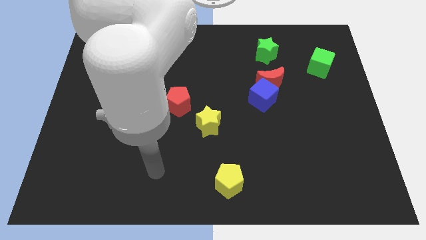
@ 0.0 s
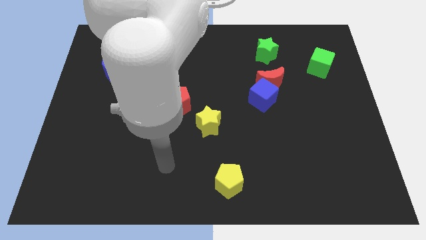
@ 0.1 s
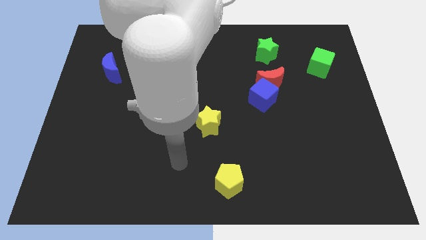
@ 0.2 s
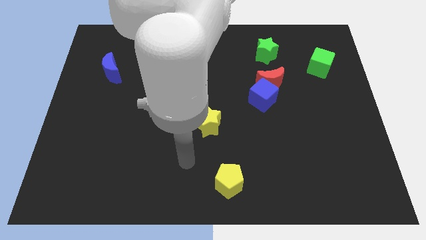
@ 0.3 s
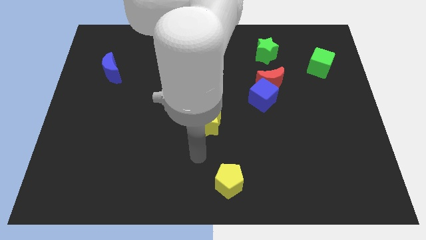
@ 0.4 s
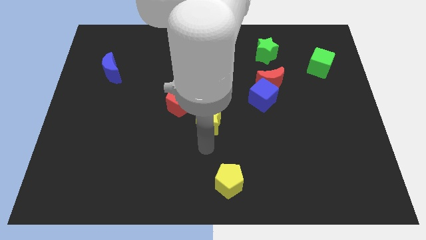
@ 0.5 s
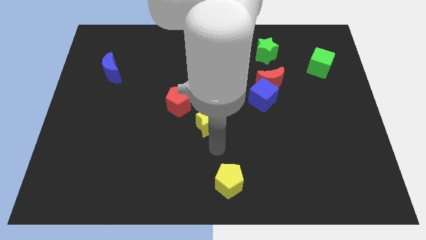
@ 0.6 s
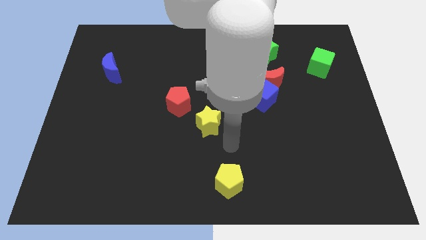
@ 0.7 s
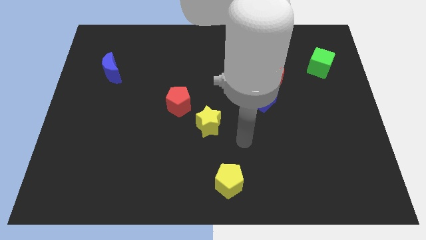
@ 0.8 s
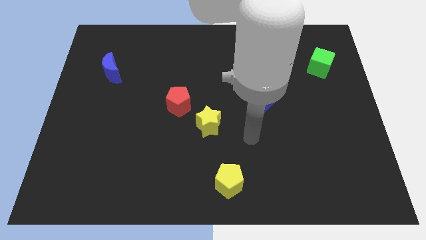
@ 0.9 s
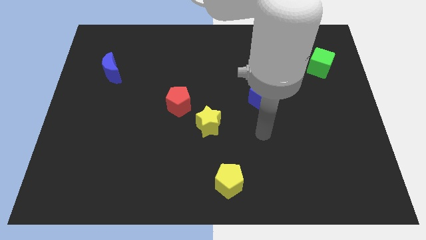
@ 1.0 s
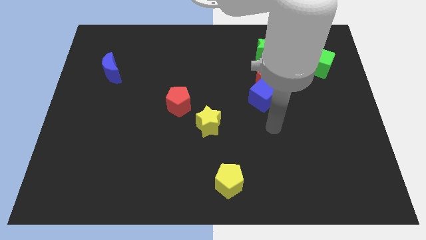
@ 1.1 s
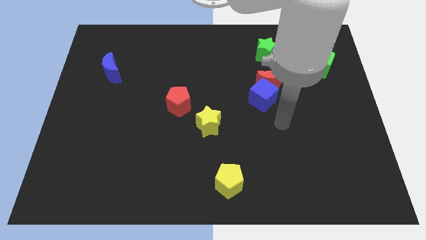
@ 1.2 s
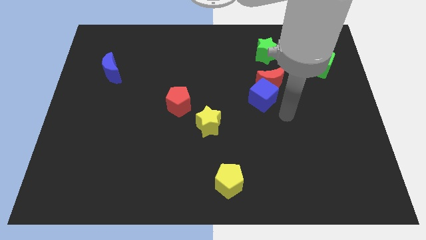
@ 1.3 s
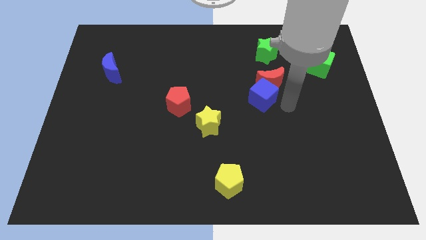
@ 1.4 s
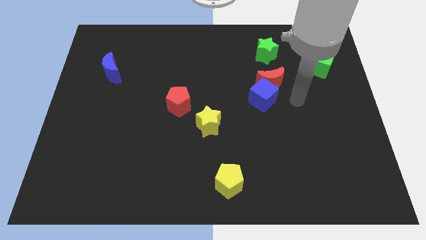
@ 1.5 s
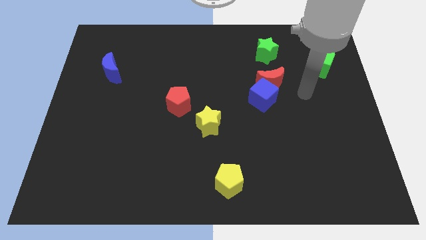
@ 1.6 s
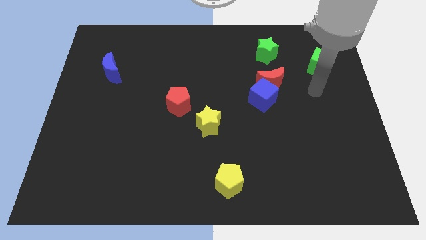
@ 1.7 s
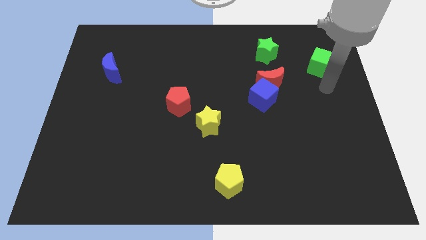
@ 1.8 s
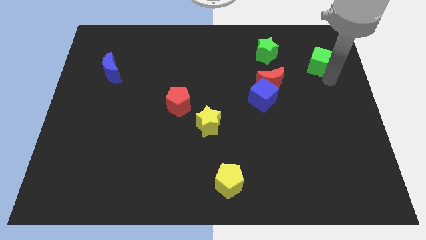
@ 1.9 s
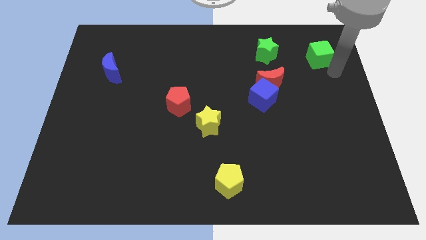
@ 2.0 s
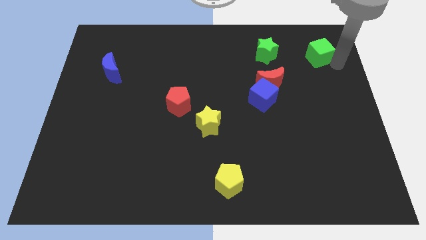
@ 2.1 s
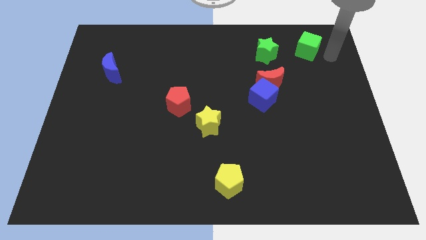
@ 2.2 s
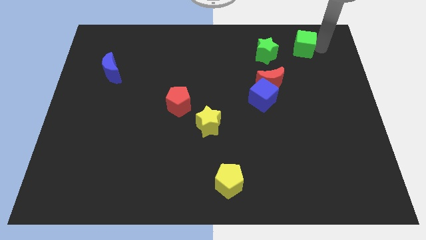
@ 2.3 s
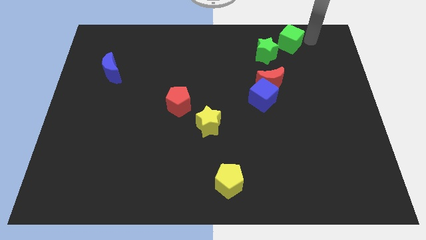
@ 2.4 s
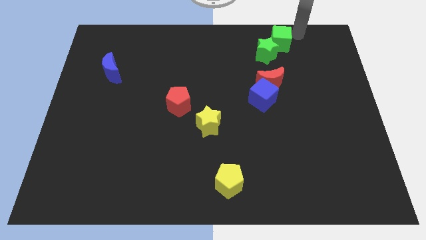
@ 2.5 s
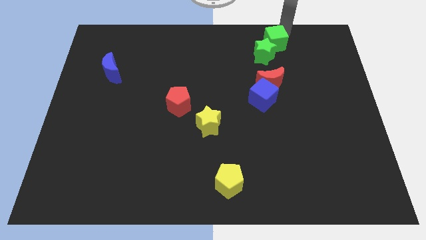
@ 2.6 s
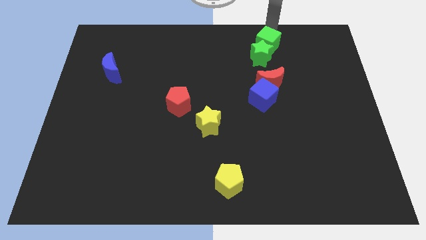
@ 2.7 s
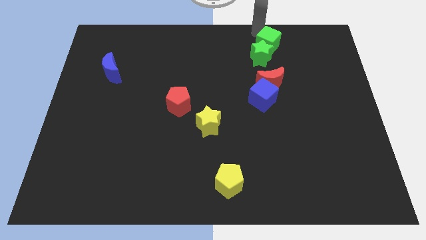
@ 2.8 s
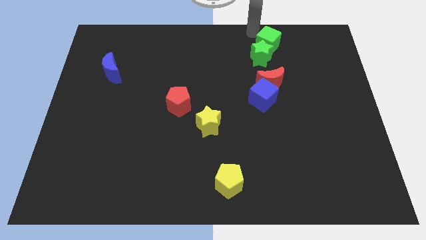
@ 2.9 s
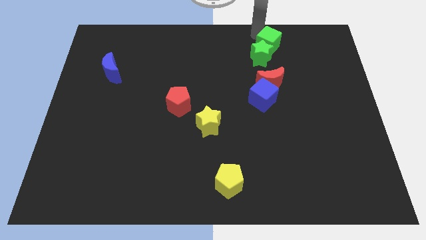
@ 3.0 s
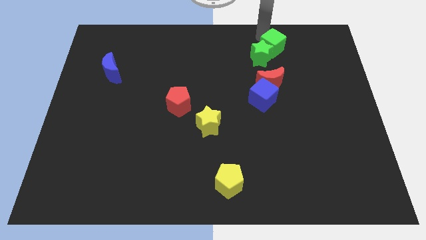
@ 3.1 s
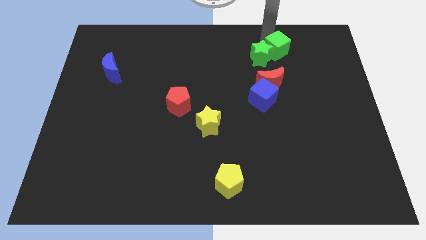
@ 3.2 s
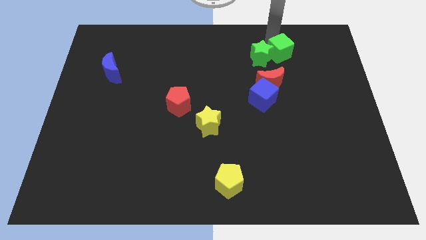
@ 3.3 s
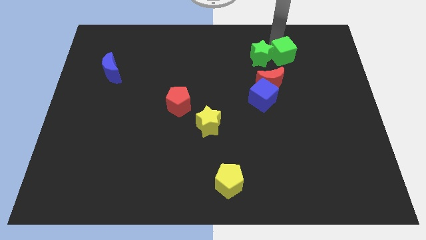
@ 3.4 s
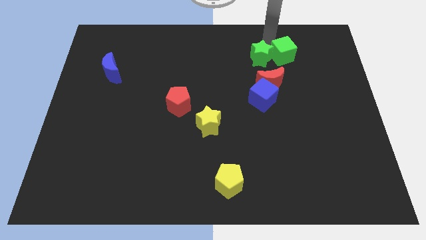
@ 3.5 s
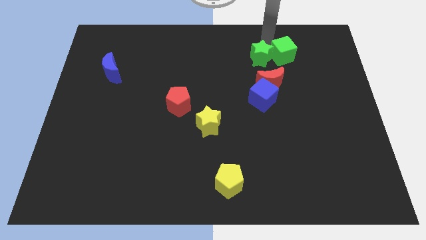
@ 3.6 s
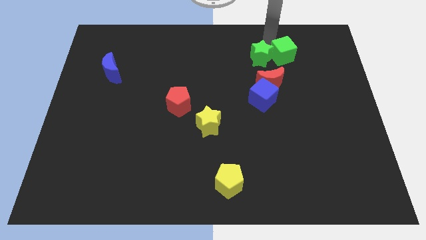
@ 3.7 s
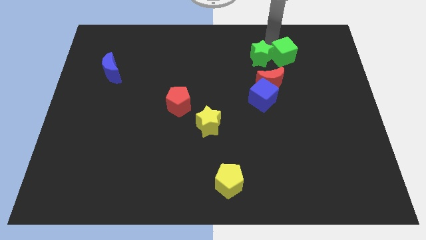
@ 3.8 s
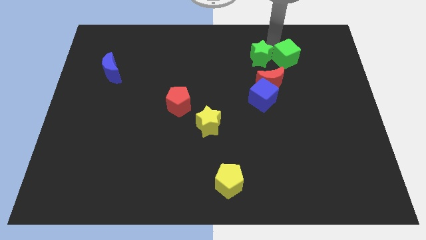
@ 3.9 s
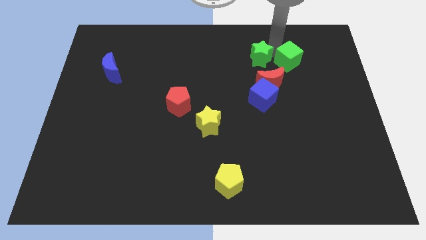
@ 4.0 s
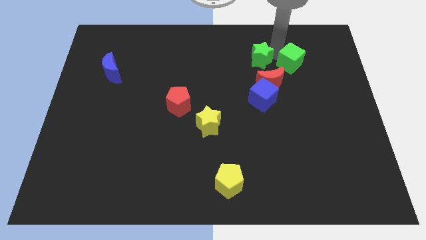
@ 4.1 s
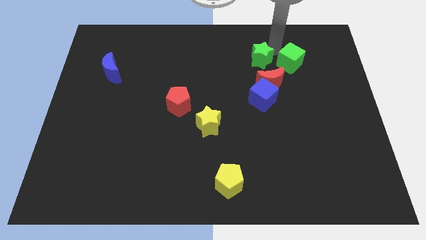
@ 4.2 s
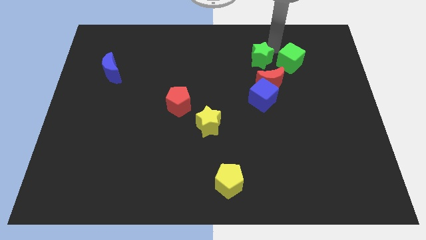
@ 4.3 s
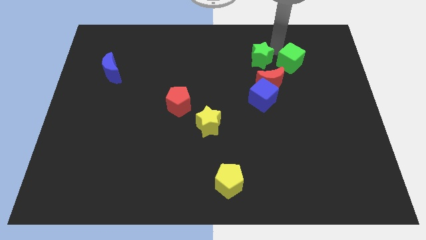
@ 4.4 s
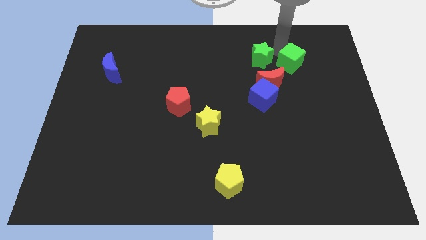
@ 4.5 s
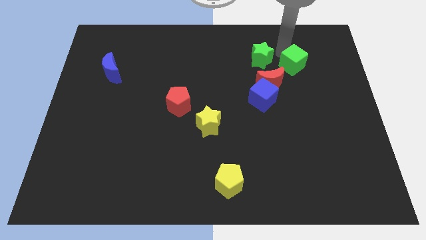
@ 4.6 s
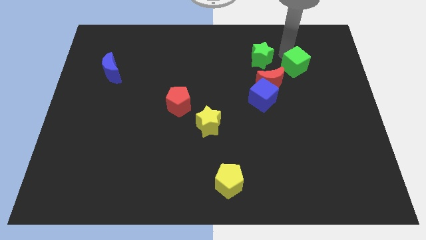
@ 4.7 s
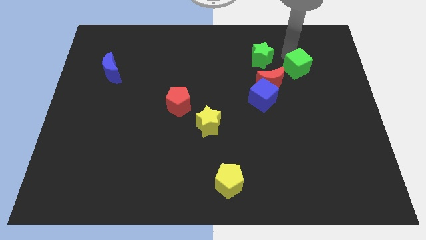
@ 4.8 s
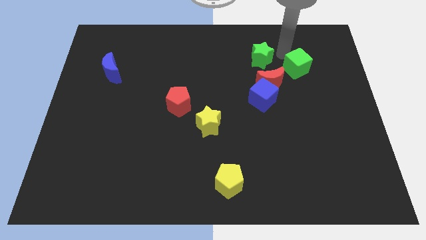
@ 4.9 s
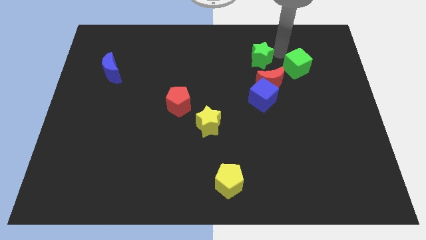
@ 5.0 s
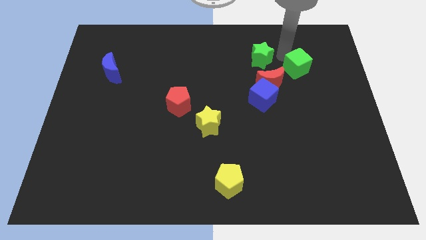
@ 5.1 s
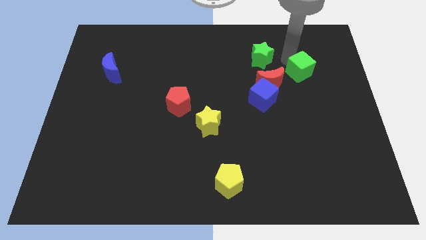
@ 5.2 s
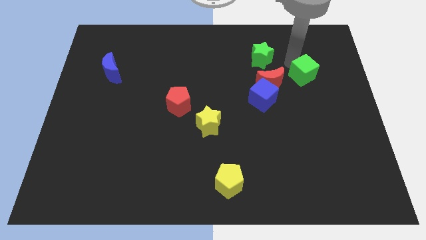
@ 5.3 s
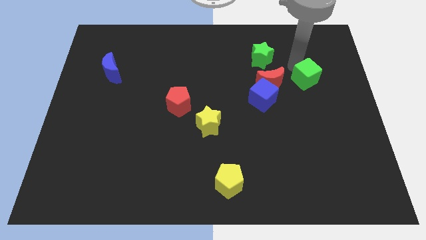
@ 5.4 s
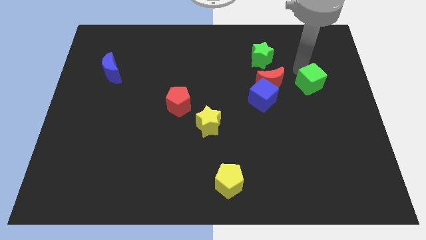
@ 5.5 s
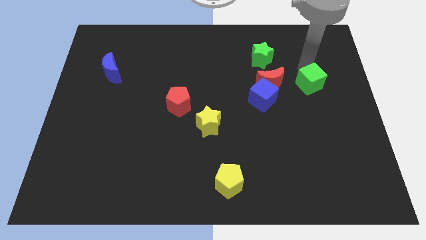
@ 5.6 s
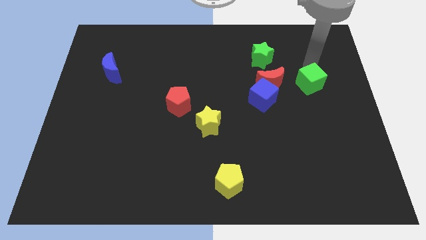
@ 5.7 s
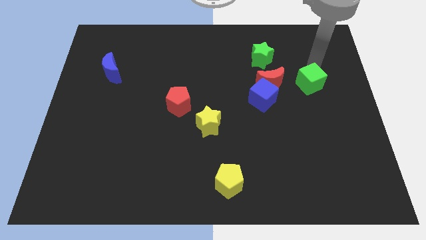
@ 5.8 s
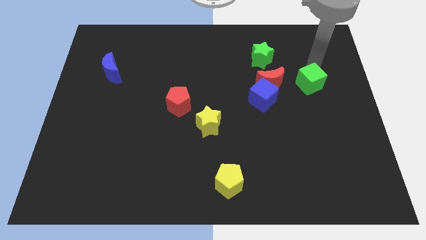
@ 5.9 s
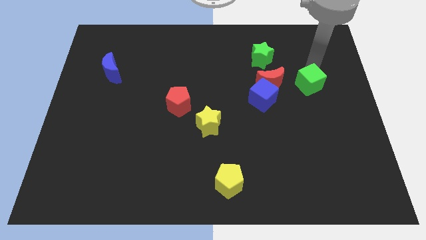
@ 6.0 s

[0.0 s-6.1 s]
slide the green cube just right of the blue cube

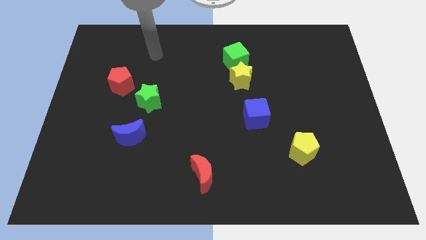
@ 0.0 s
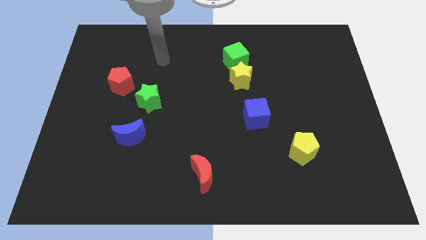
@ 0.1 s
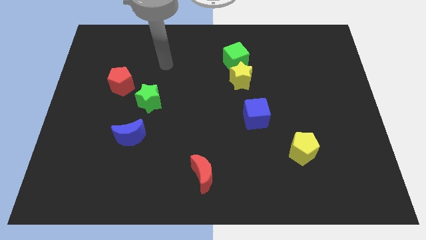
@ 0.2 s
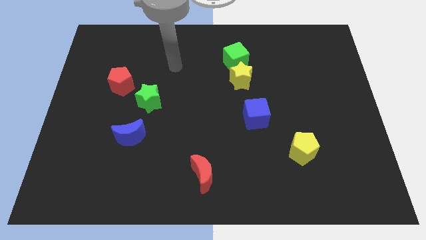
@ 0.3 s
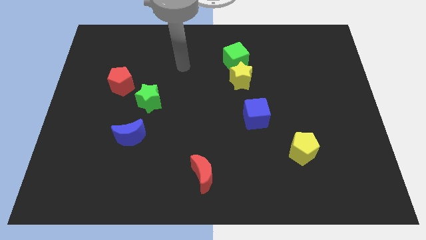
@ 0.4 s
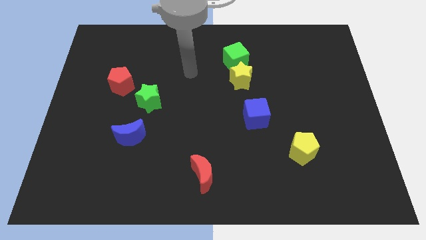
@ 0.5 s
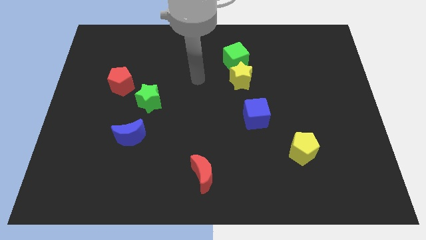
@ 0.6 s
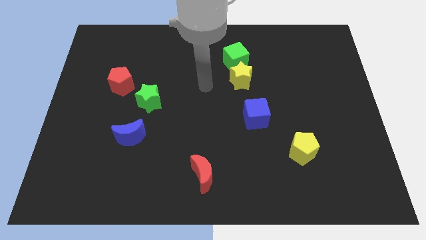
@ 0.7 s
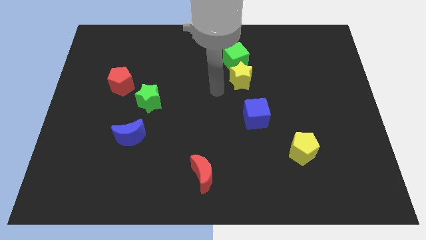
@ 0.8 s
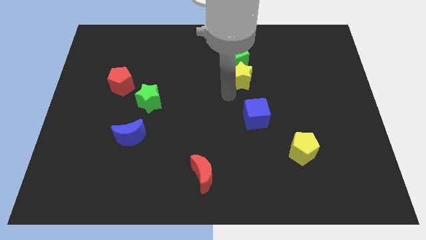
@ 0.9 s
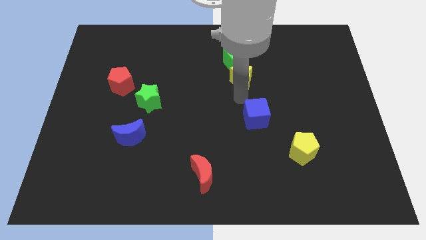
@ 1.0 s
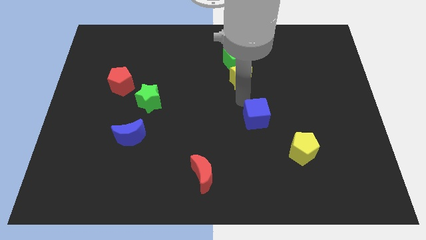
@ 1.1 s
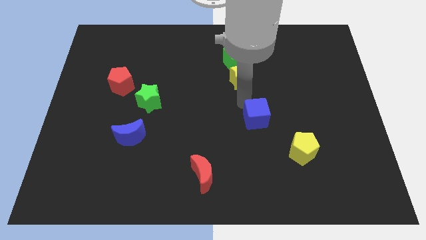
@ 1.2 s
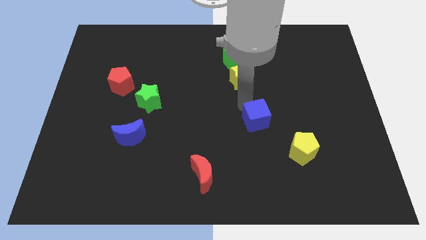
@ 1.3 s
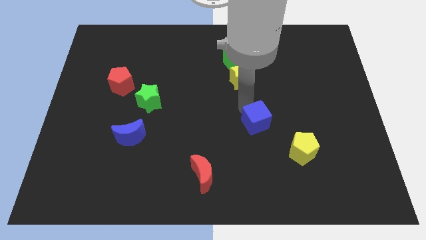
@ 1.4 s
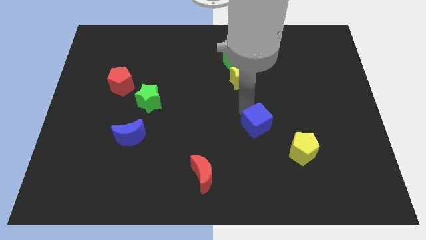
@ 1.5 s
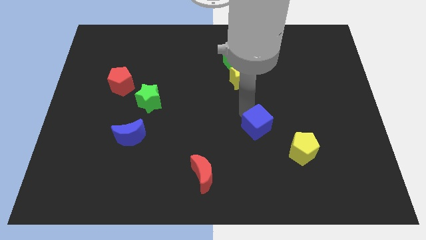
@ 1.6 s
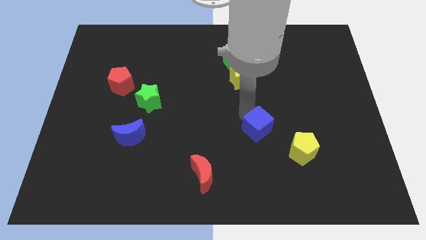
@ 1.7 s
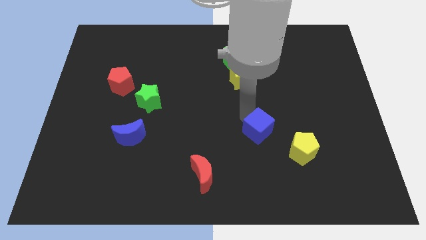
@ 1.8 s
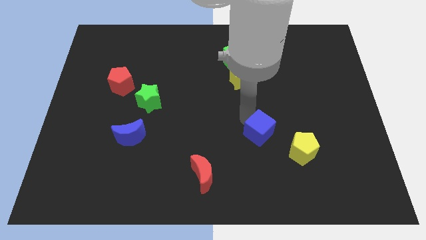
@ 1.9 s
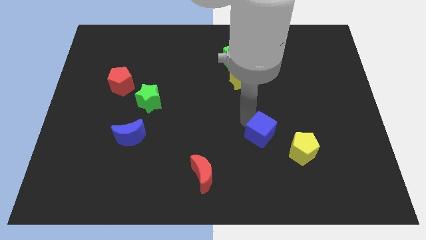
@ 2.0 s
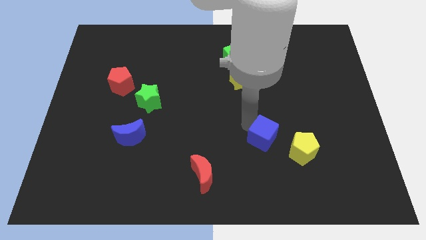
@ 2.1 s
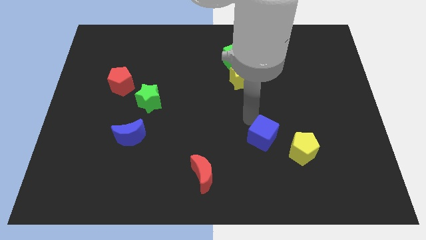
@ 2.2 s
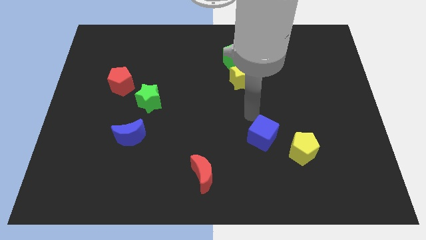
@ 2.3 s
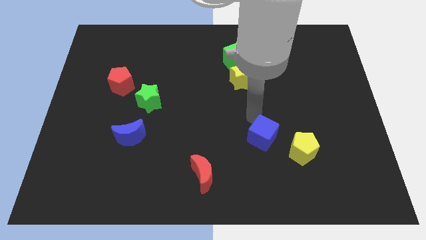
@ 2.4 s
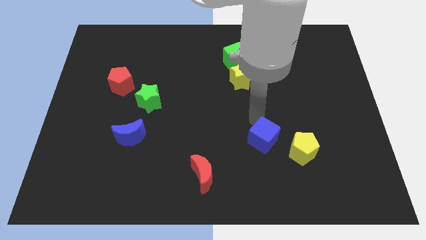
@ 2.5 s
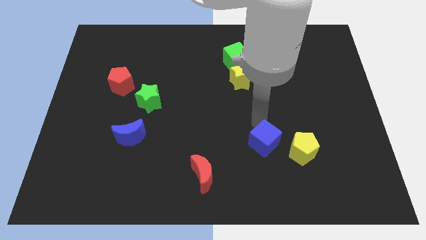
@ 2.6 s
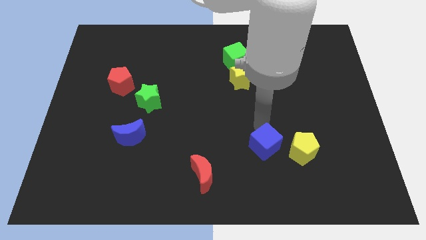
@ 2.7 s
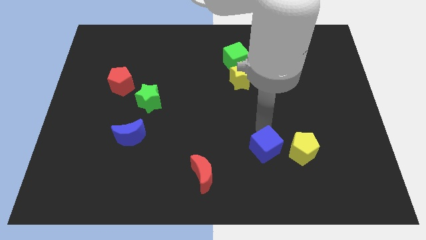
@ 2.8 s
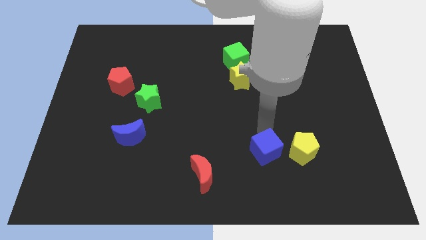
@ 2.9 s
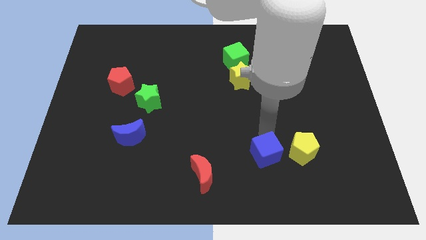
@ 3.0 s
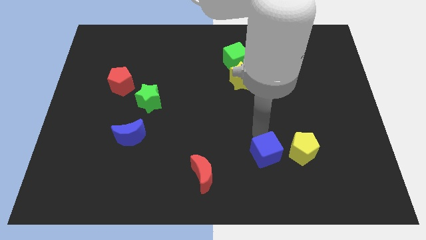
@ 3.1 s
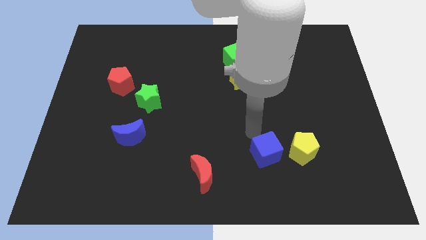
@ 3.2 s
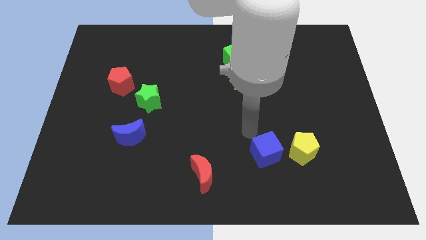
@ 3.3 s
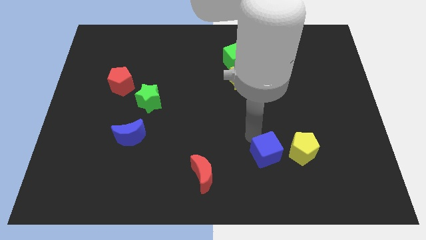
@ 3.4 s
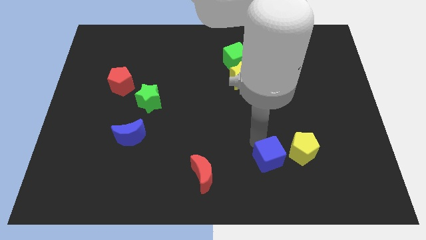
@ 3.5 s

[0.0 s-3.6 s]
put the blue cube to the bottom left of the yellow pentagon
